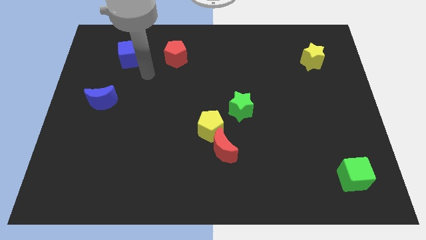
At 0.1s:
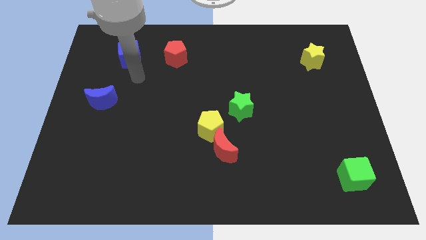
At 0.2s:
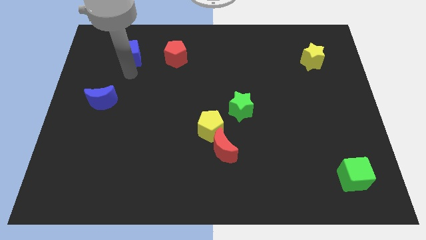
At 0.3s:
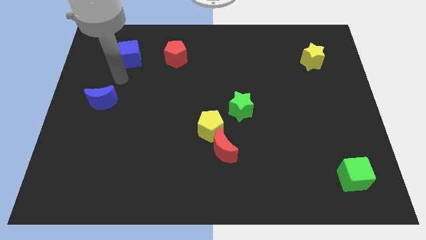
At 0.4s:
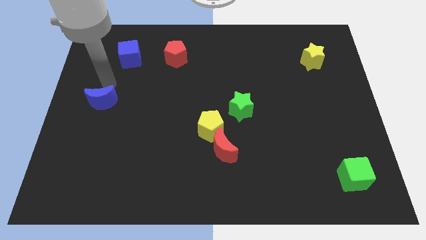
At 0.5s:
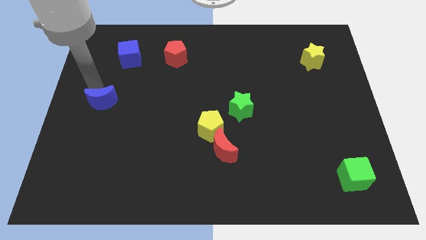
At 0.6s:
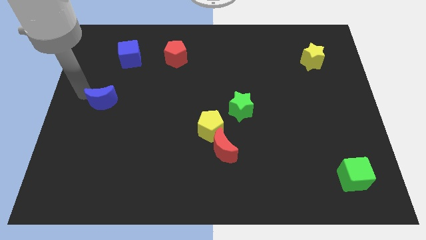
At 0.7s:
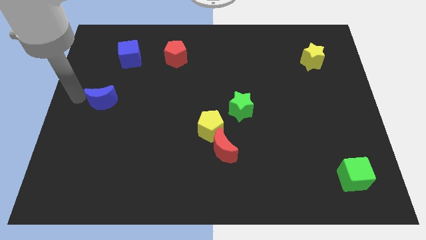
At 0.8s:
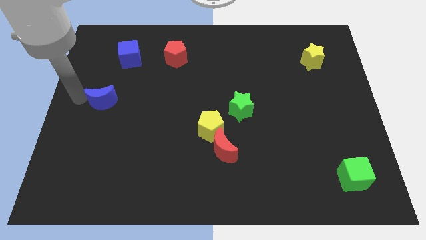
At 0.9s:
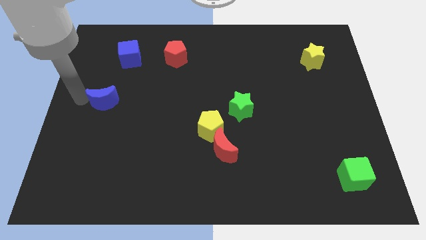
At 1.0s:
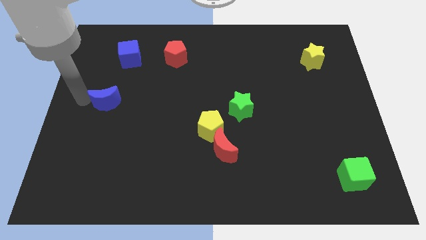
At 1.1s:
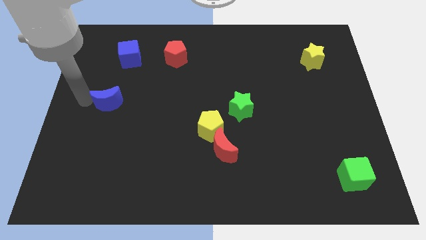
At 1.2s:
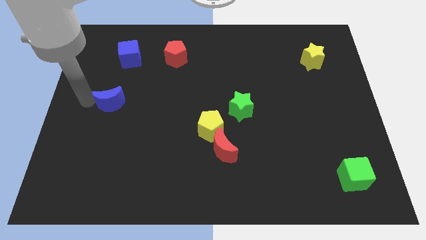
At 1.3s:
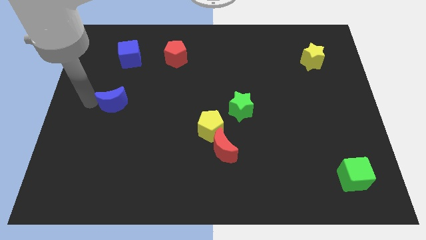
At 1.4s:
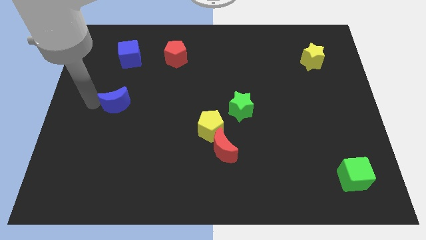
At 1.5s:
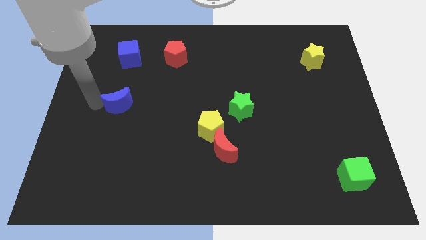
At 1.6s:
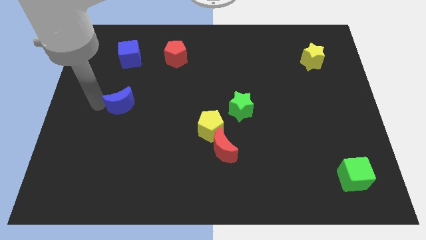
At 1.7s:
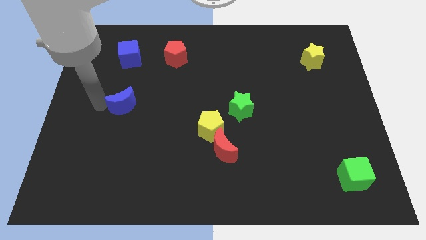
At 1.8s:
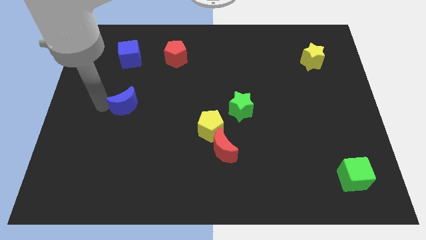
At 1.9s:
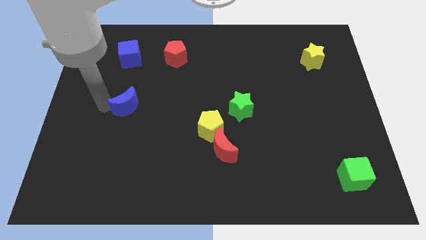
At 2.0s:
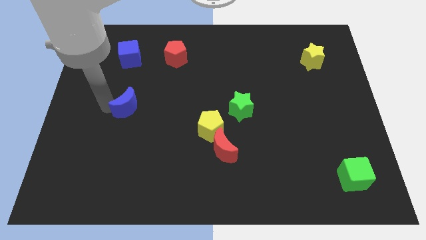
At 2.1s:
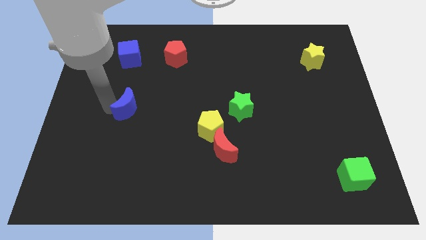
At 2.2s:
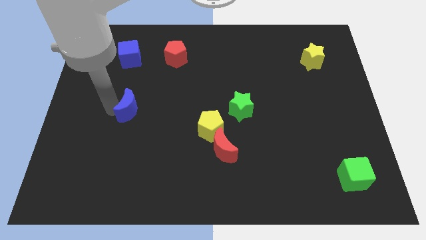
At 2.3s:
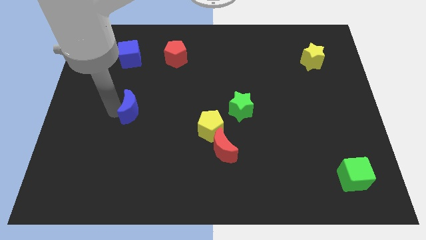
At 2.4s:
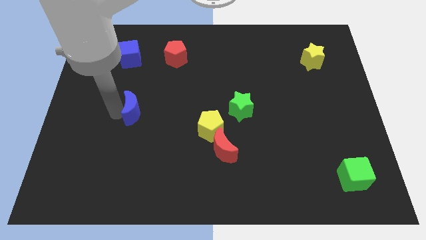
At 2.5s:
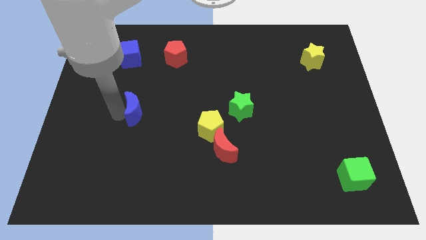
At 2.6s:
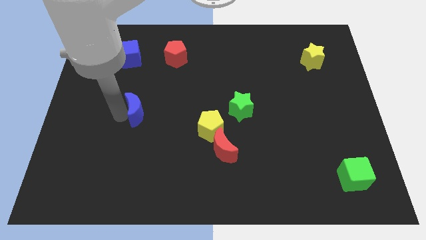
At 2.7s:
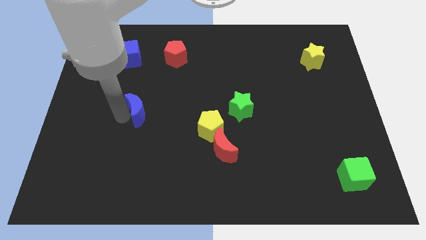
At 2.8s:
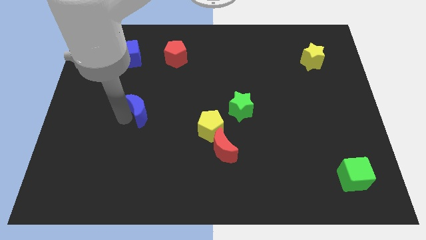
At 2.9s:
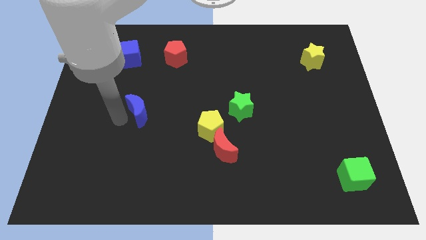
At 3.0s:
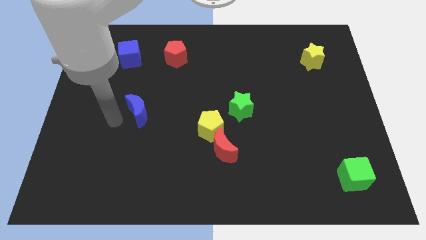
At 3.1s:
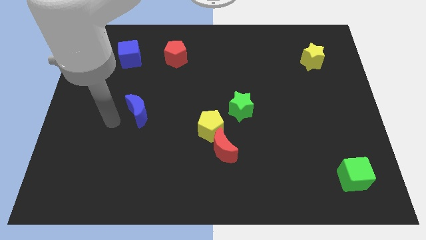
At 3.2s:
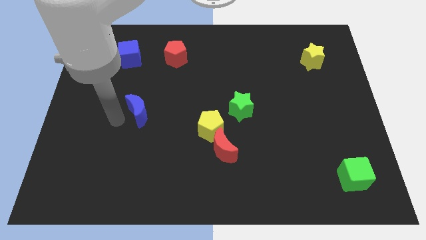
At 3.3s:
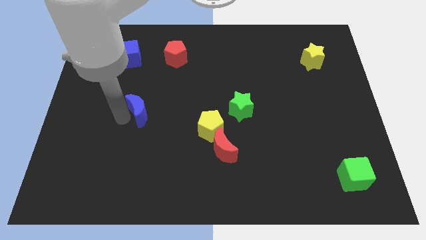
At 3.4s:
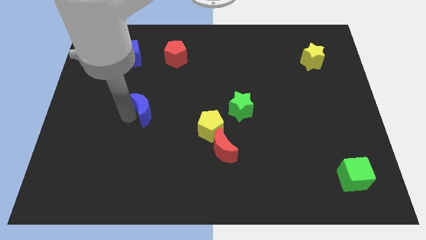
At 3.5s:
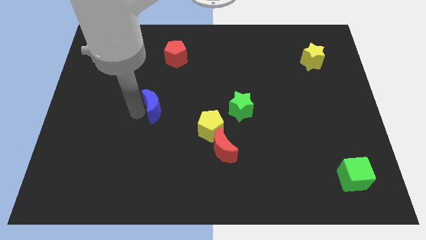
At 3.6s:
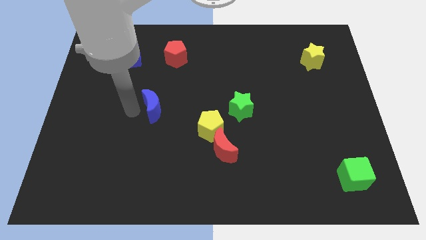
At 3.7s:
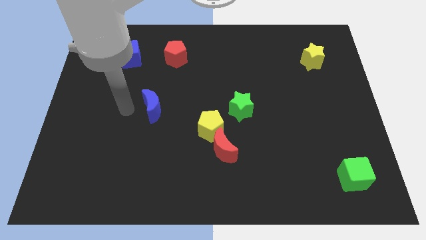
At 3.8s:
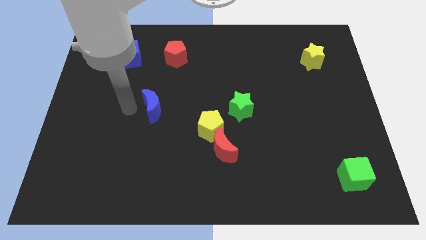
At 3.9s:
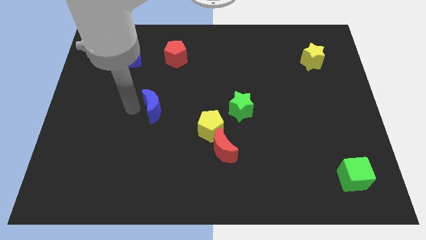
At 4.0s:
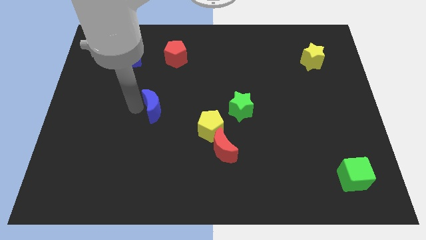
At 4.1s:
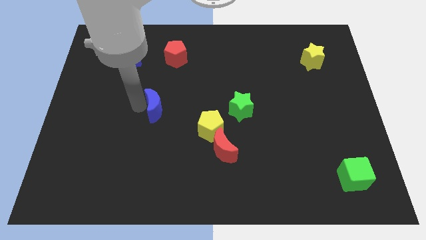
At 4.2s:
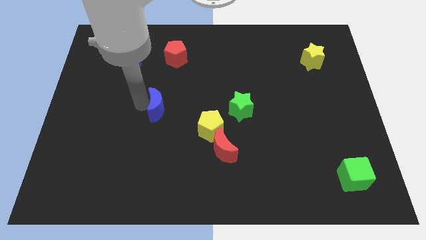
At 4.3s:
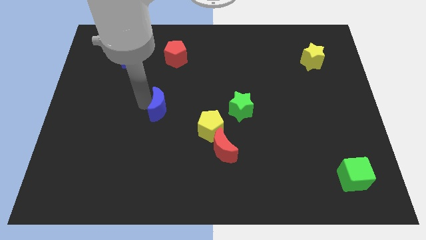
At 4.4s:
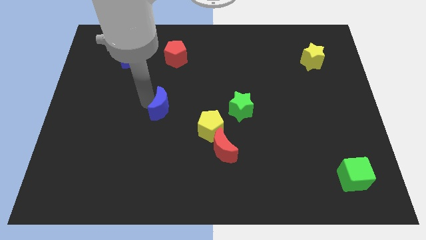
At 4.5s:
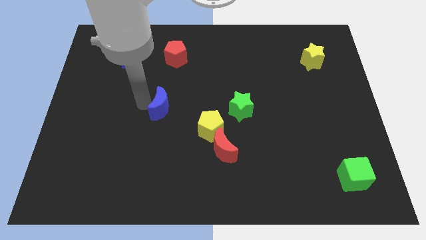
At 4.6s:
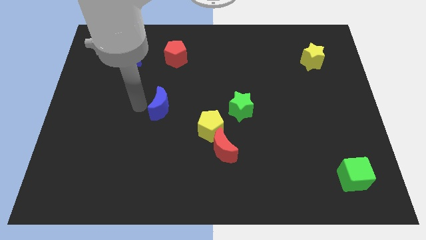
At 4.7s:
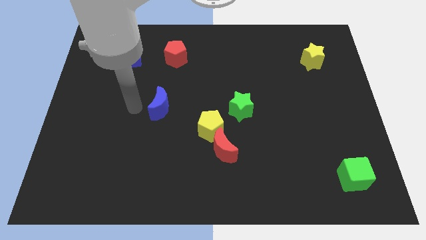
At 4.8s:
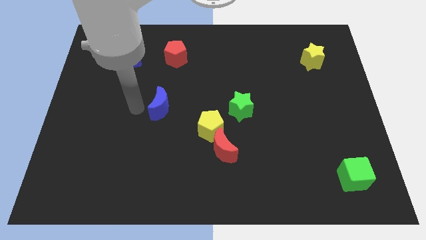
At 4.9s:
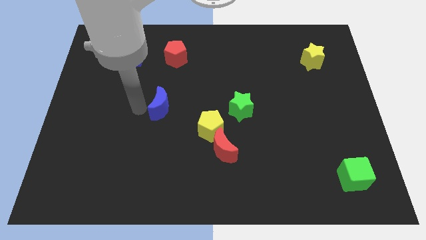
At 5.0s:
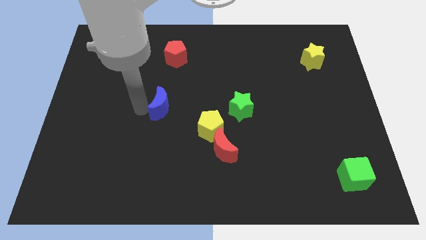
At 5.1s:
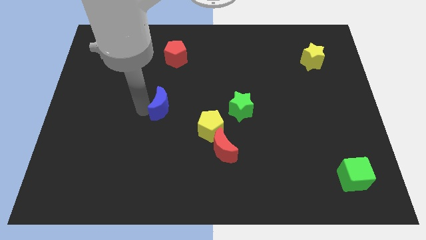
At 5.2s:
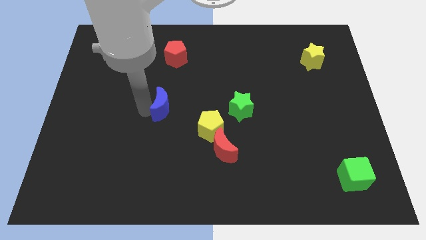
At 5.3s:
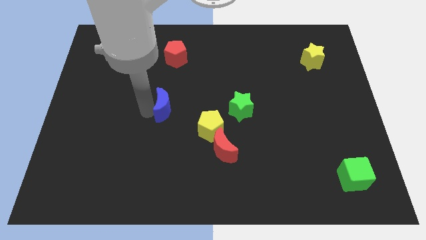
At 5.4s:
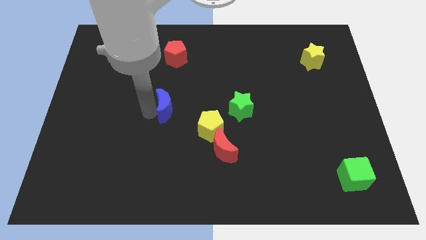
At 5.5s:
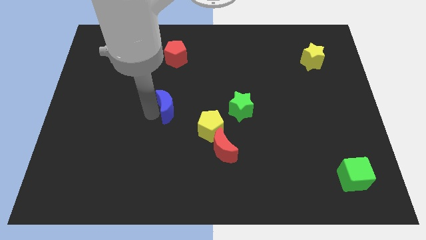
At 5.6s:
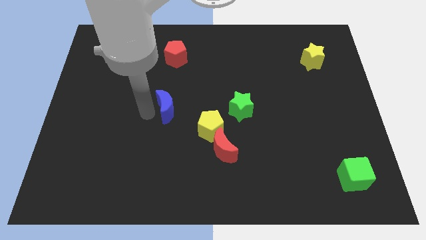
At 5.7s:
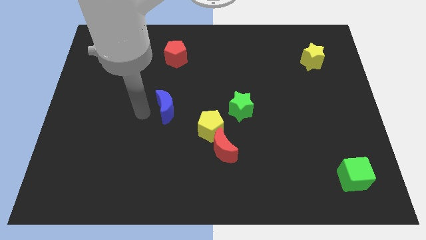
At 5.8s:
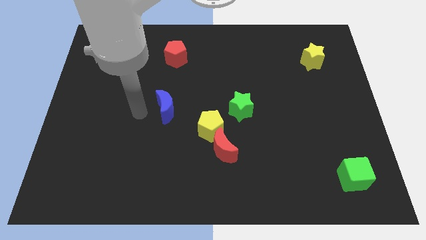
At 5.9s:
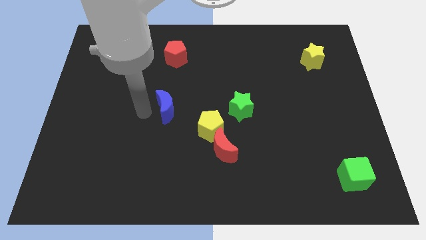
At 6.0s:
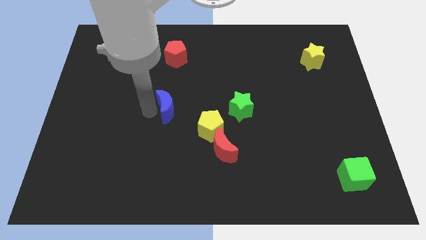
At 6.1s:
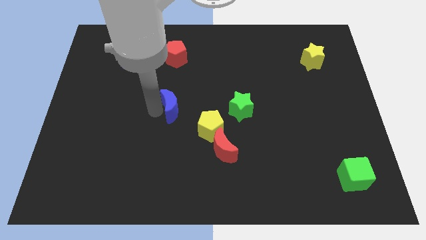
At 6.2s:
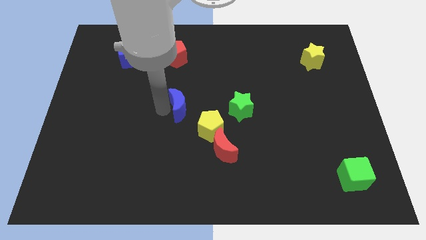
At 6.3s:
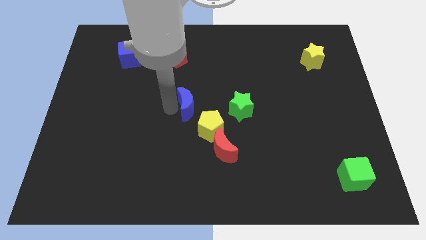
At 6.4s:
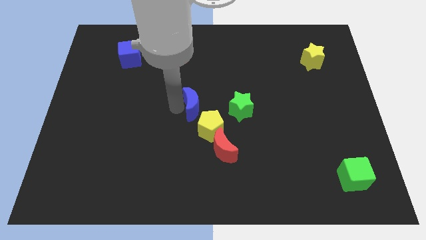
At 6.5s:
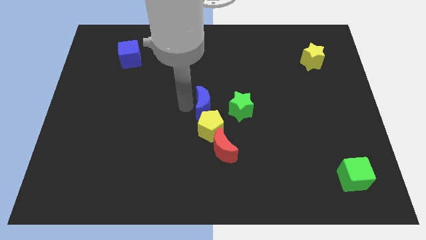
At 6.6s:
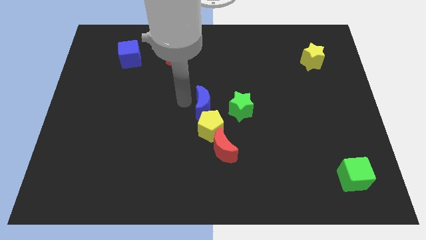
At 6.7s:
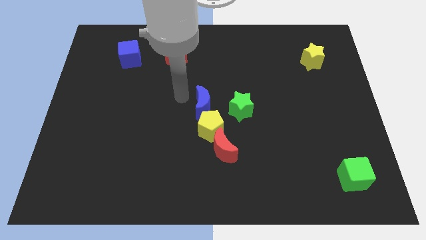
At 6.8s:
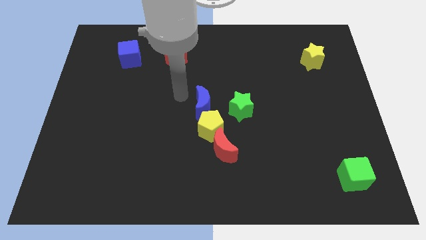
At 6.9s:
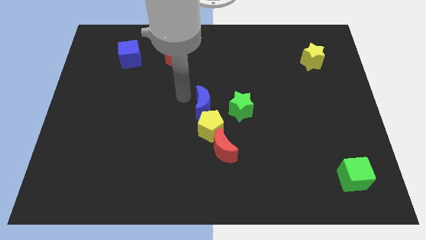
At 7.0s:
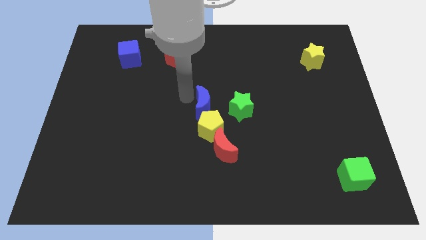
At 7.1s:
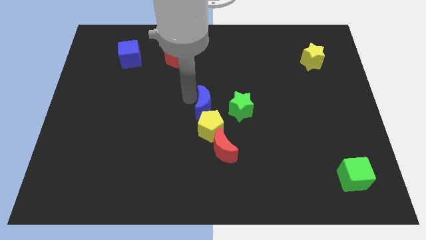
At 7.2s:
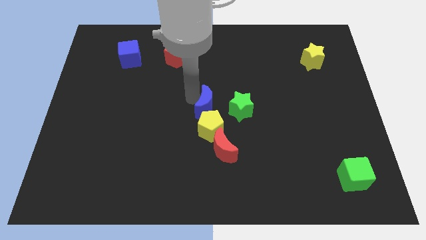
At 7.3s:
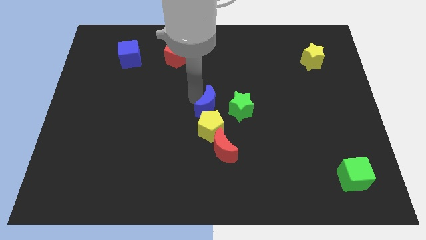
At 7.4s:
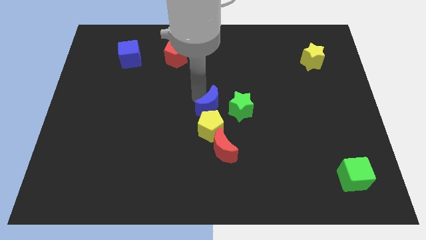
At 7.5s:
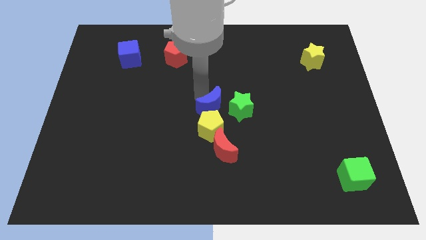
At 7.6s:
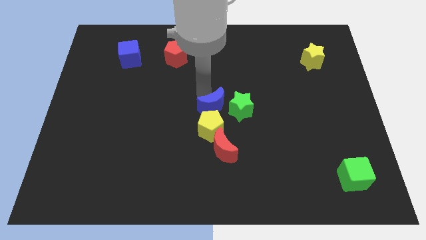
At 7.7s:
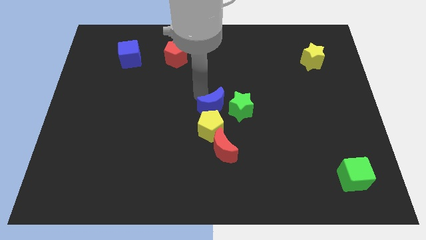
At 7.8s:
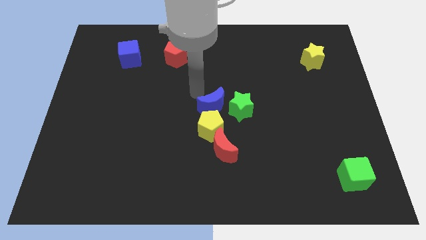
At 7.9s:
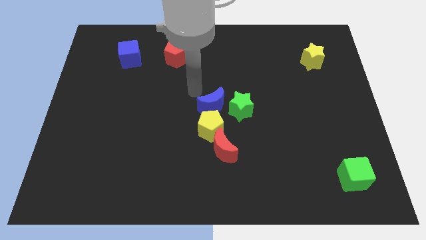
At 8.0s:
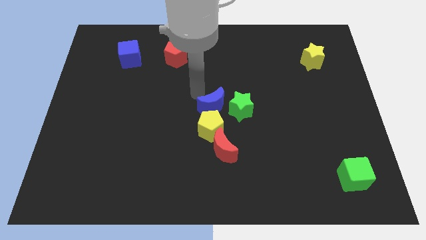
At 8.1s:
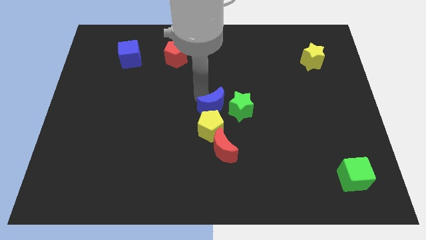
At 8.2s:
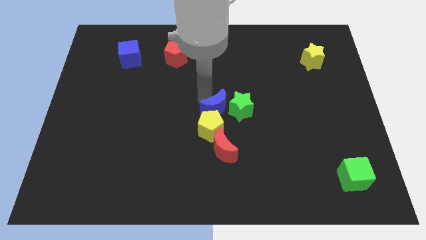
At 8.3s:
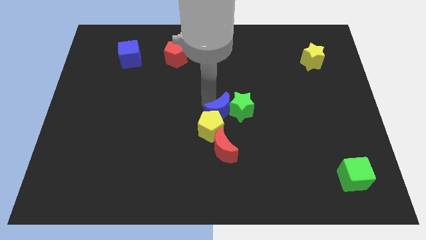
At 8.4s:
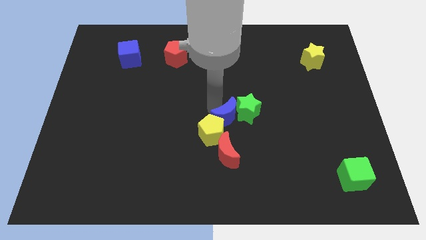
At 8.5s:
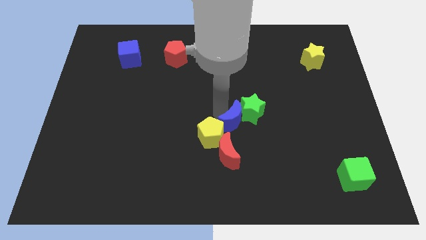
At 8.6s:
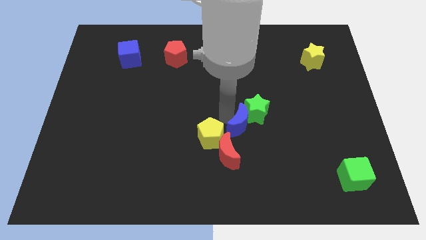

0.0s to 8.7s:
move the blue moon to the top right of the red moon
